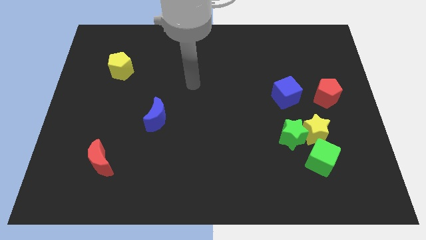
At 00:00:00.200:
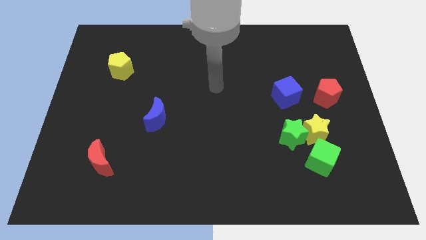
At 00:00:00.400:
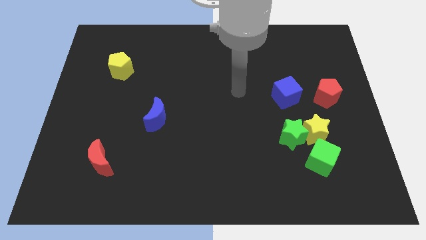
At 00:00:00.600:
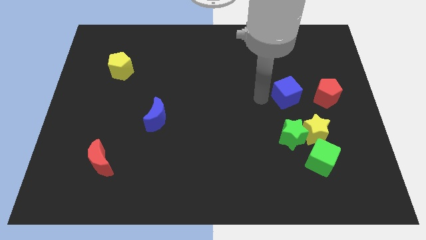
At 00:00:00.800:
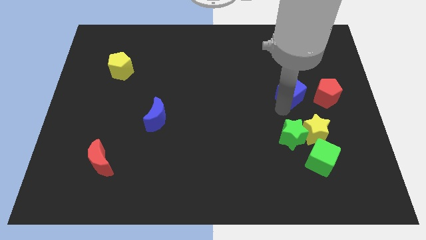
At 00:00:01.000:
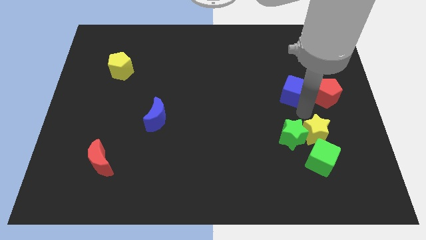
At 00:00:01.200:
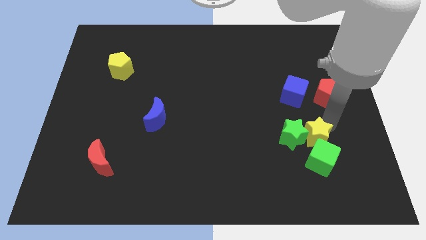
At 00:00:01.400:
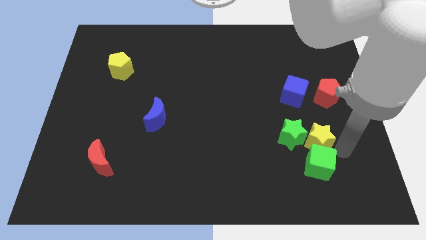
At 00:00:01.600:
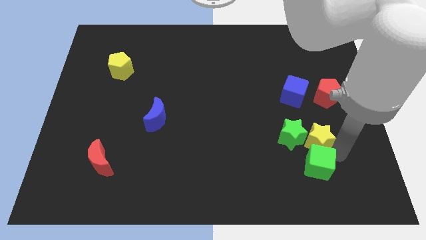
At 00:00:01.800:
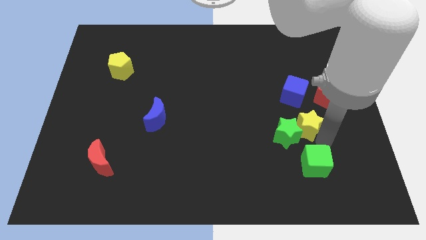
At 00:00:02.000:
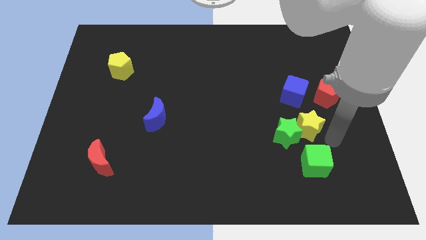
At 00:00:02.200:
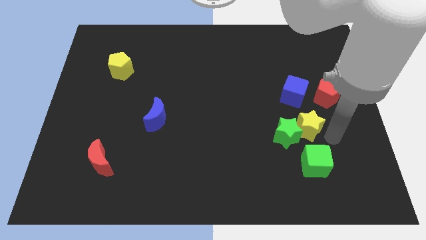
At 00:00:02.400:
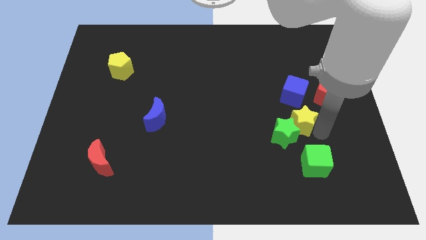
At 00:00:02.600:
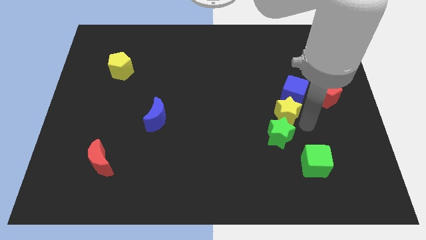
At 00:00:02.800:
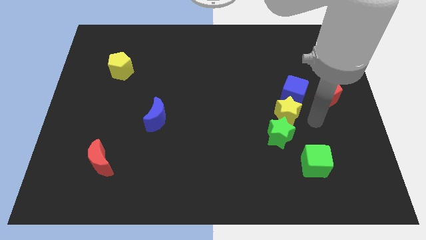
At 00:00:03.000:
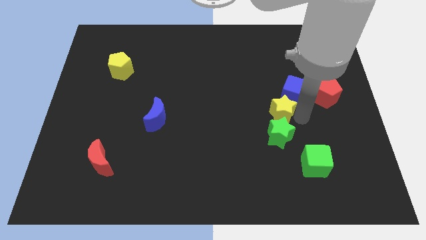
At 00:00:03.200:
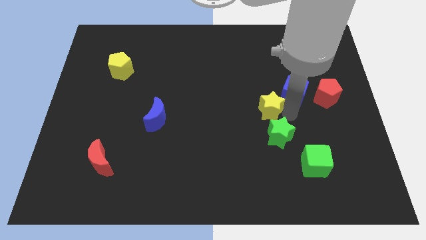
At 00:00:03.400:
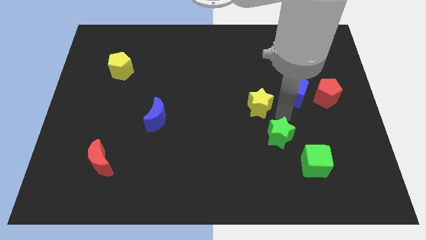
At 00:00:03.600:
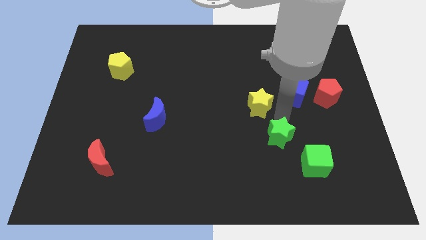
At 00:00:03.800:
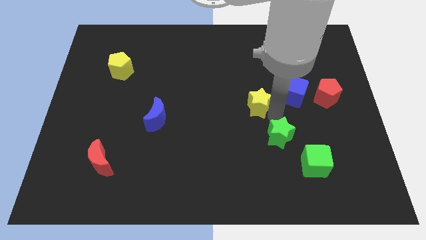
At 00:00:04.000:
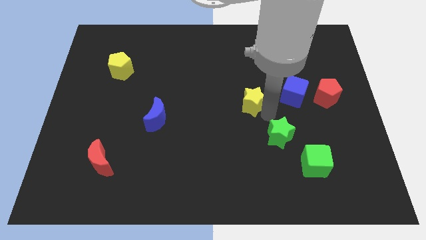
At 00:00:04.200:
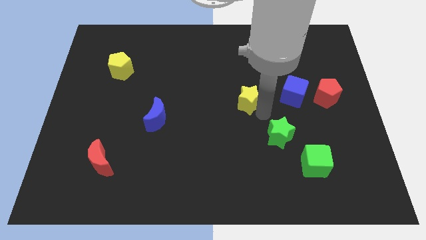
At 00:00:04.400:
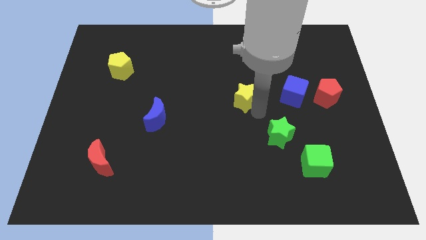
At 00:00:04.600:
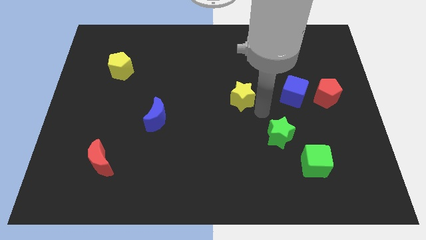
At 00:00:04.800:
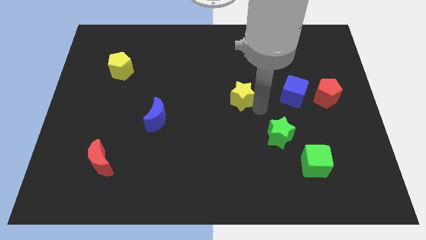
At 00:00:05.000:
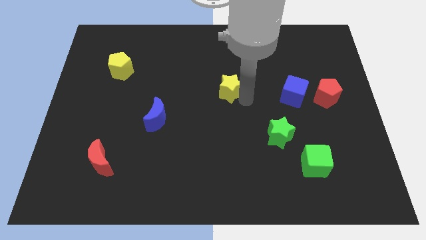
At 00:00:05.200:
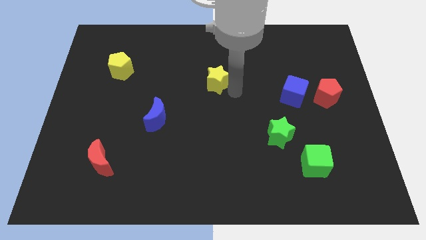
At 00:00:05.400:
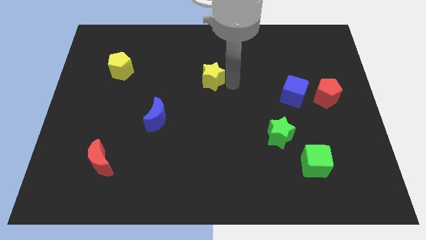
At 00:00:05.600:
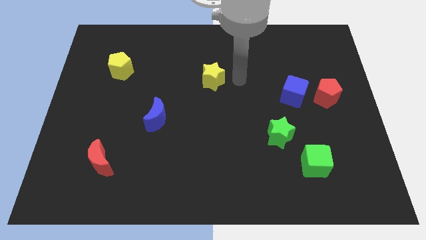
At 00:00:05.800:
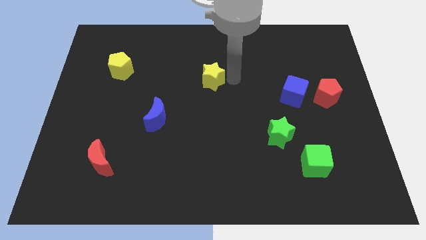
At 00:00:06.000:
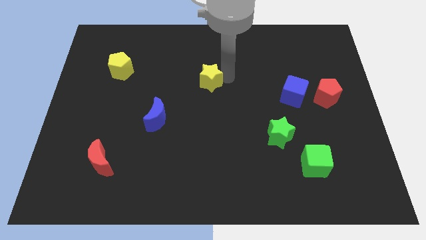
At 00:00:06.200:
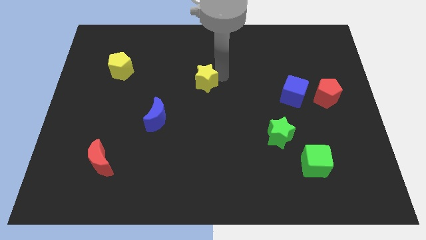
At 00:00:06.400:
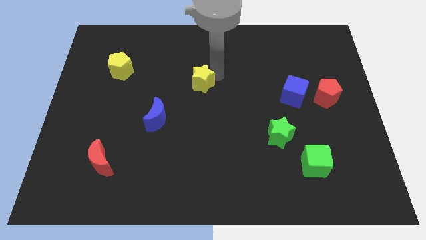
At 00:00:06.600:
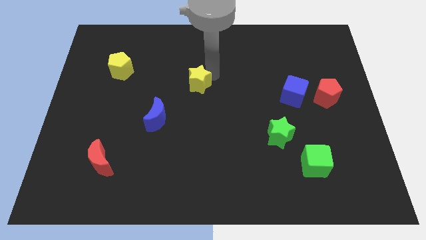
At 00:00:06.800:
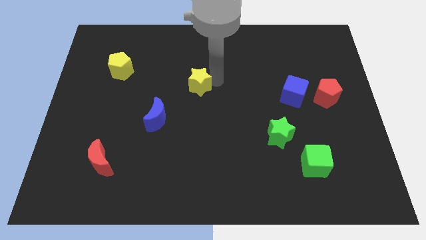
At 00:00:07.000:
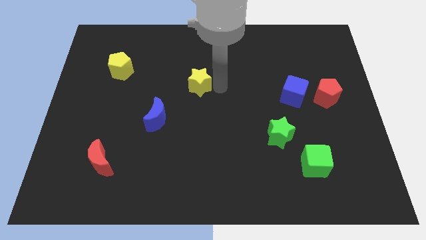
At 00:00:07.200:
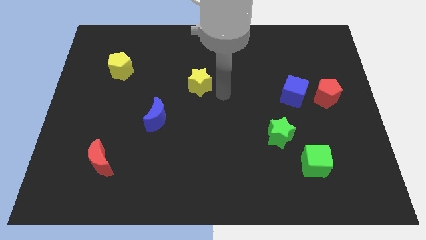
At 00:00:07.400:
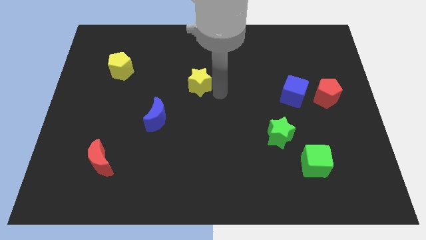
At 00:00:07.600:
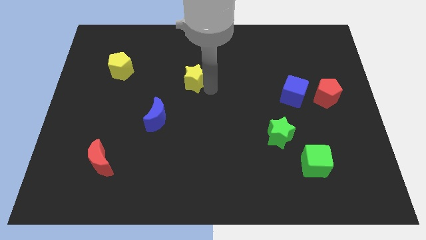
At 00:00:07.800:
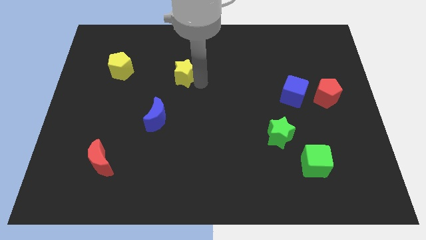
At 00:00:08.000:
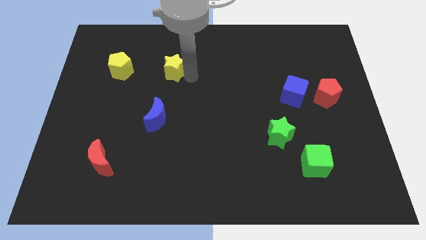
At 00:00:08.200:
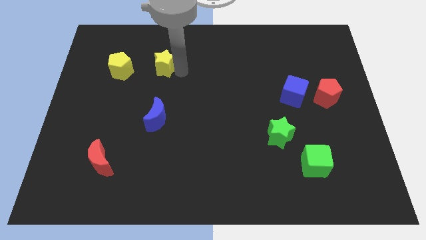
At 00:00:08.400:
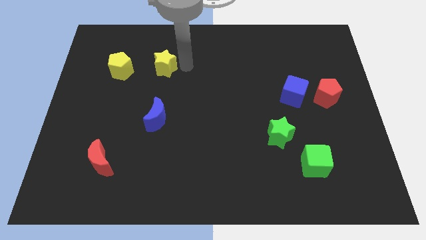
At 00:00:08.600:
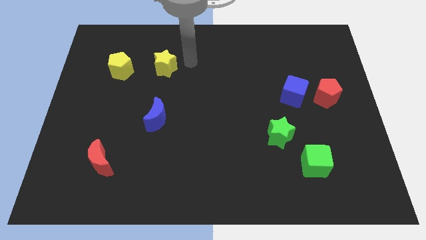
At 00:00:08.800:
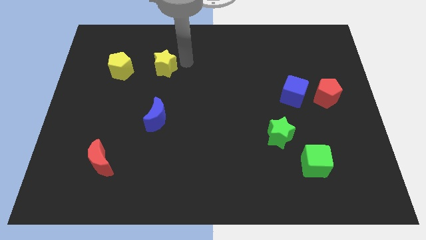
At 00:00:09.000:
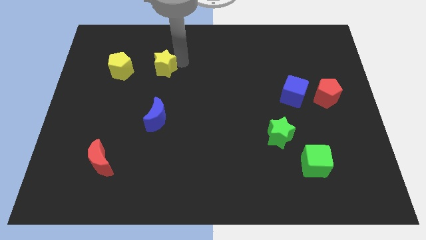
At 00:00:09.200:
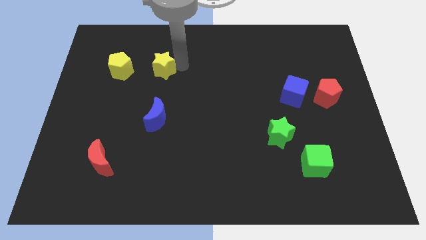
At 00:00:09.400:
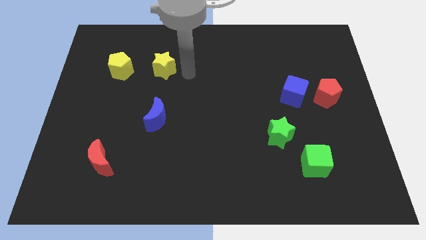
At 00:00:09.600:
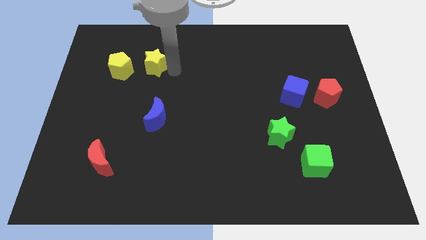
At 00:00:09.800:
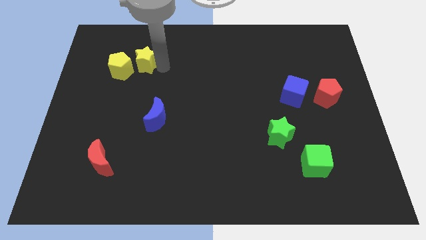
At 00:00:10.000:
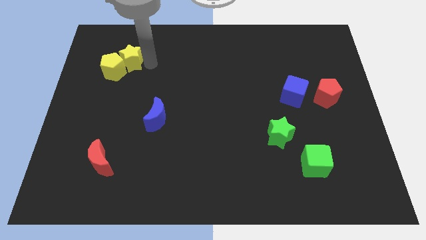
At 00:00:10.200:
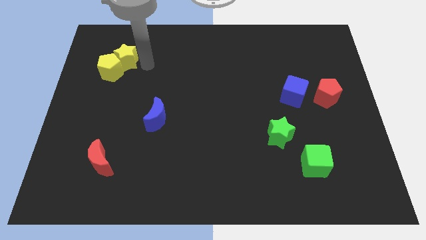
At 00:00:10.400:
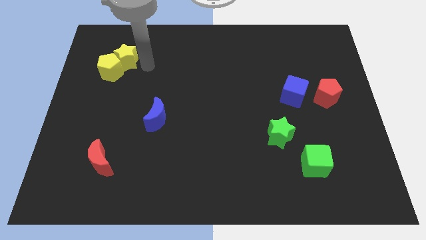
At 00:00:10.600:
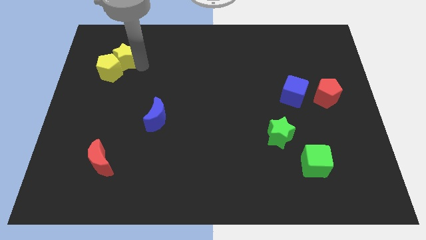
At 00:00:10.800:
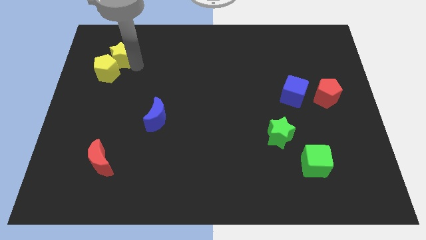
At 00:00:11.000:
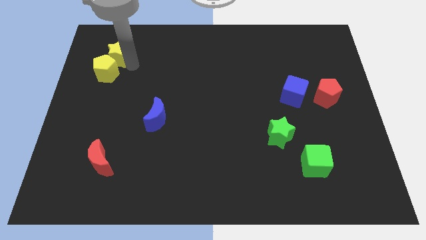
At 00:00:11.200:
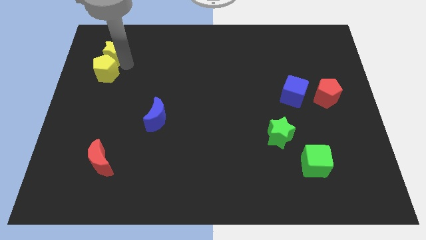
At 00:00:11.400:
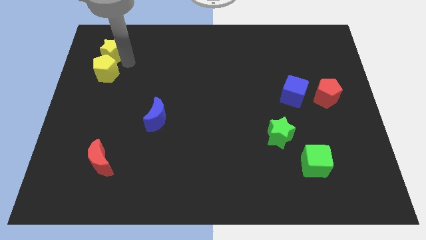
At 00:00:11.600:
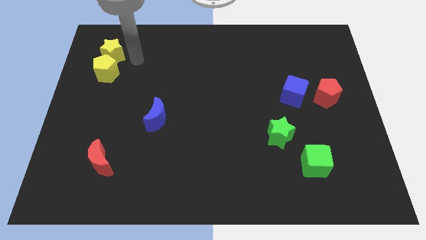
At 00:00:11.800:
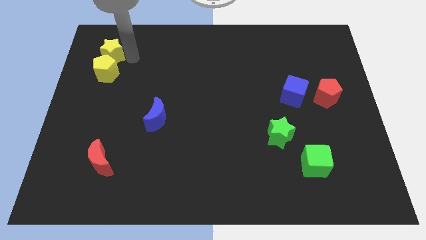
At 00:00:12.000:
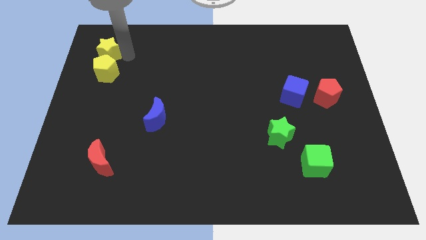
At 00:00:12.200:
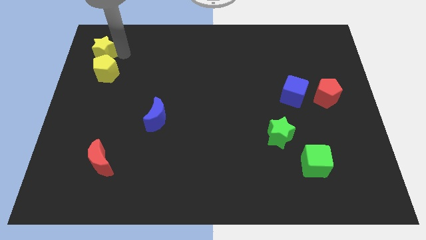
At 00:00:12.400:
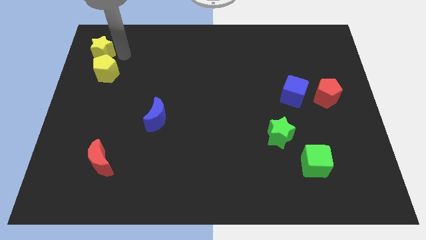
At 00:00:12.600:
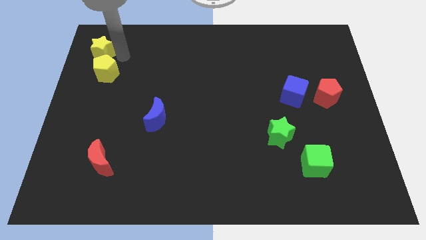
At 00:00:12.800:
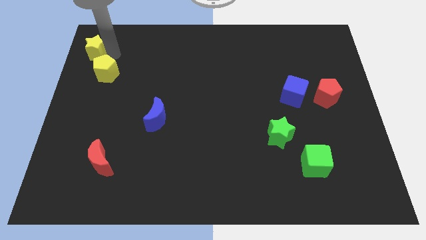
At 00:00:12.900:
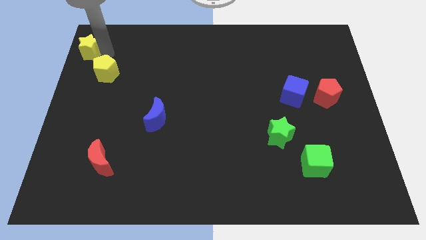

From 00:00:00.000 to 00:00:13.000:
move the yellow star to the top left of the board
